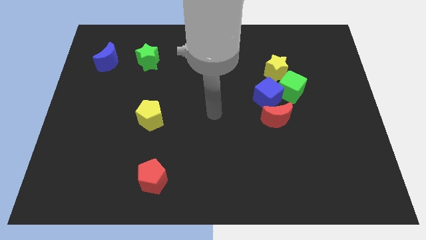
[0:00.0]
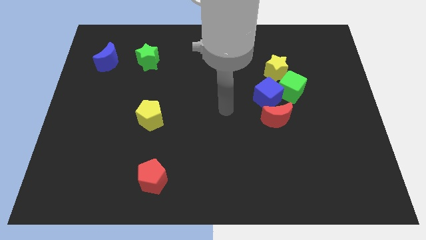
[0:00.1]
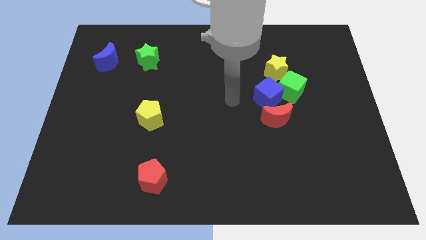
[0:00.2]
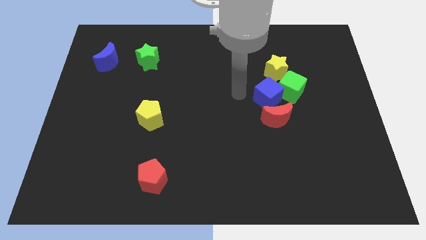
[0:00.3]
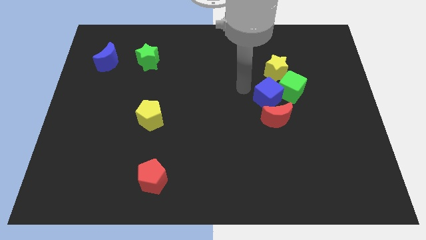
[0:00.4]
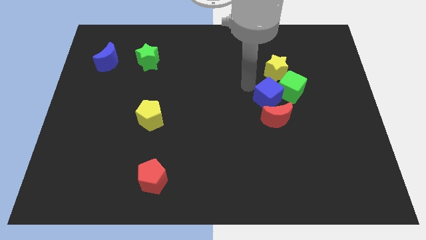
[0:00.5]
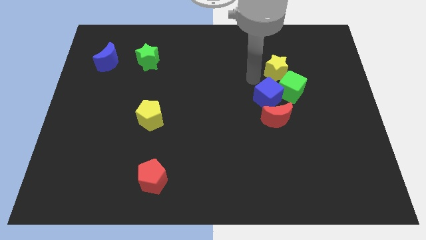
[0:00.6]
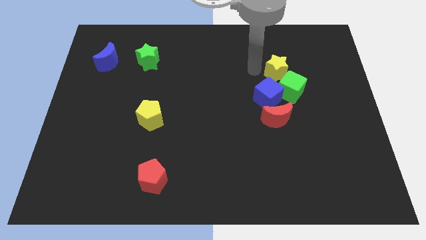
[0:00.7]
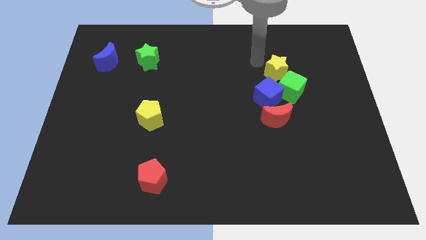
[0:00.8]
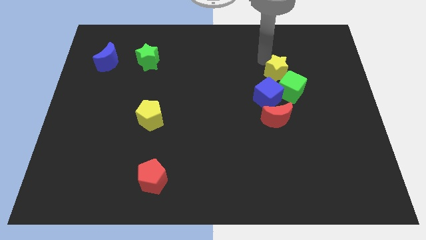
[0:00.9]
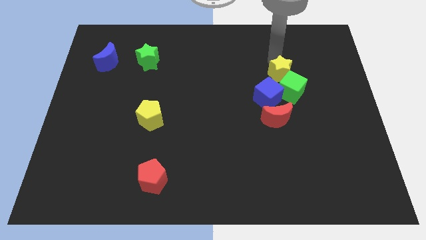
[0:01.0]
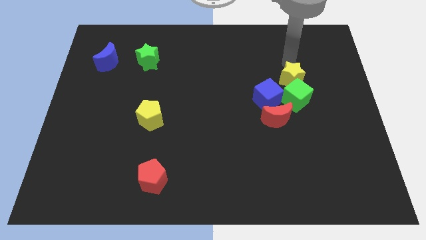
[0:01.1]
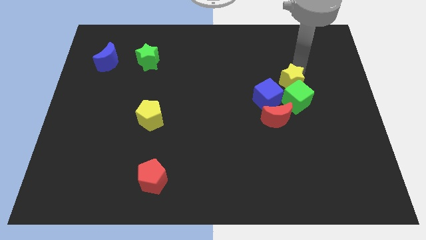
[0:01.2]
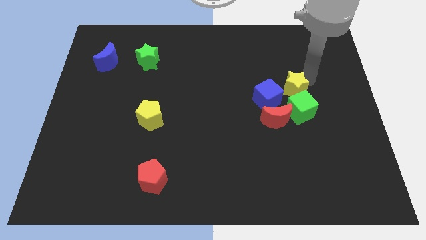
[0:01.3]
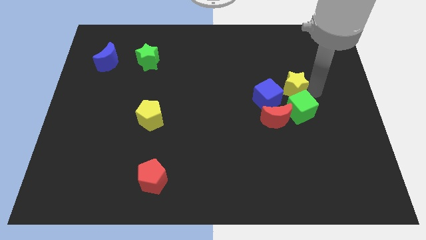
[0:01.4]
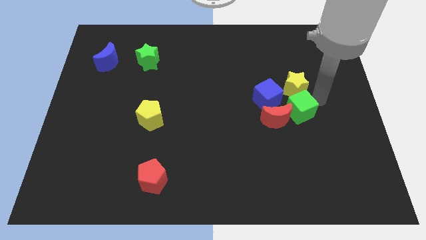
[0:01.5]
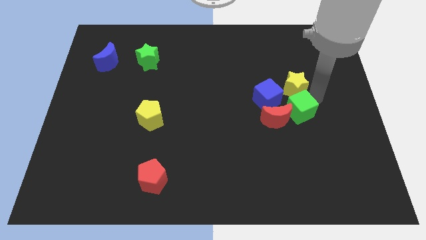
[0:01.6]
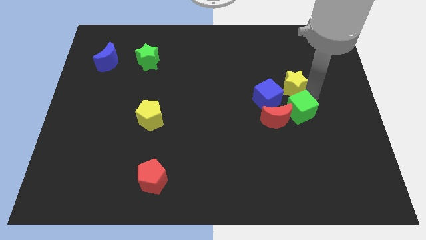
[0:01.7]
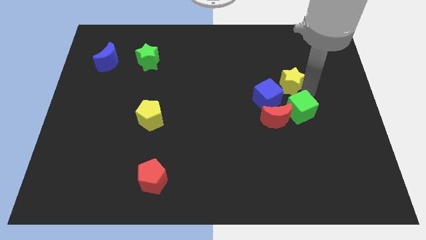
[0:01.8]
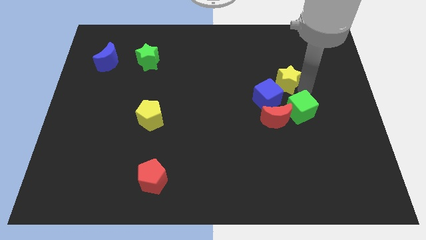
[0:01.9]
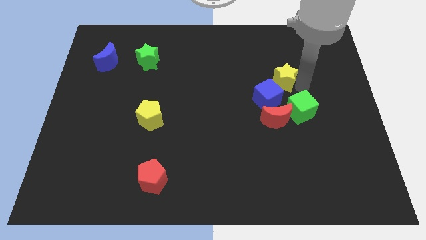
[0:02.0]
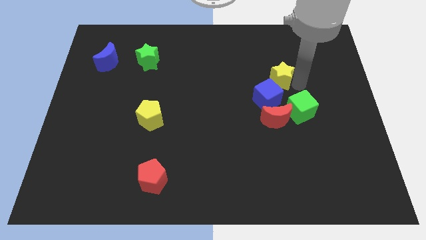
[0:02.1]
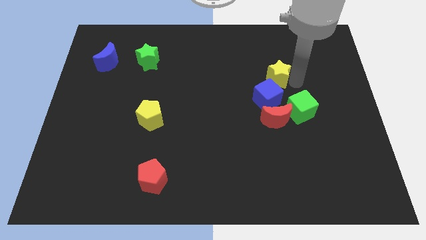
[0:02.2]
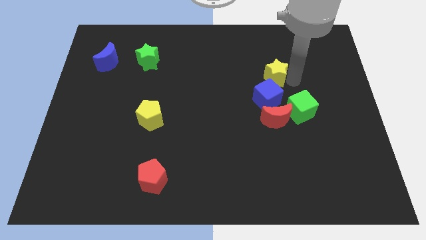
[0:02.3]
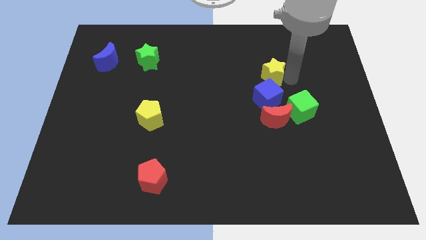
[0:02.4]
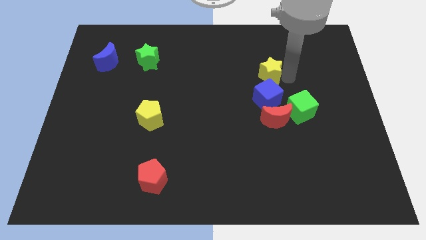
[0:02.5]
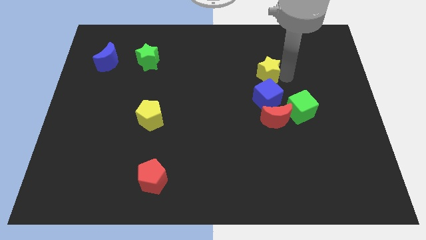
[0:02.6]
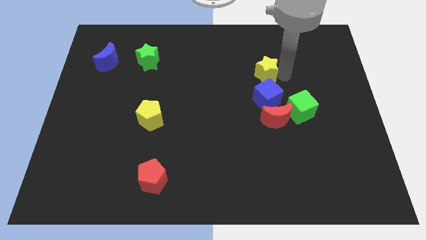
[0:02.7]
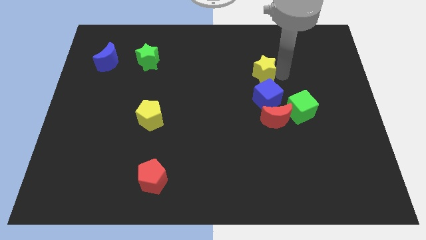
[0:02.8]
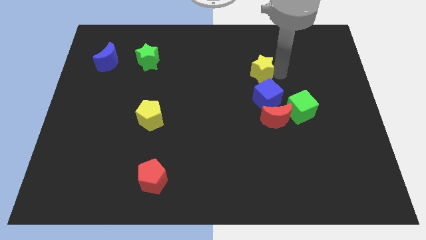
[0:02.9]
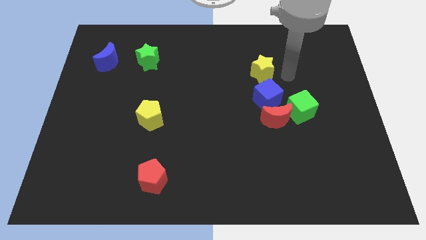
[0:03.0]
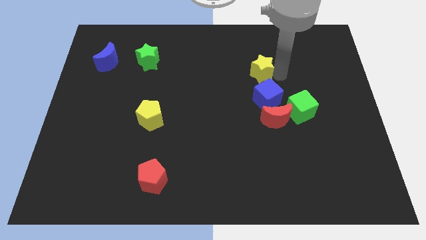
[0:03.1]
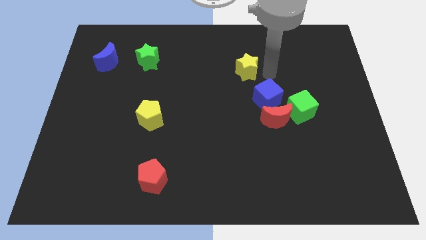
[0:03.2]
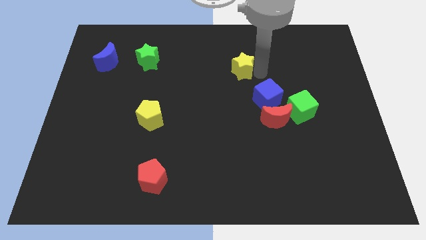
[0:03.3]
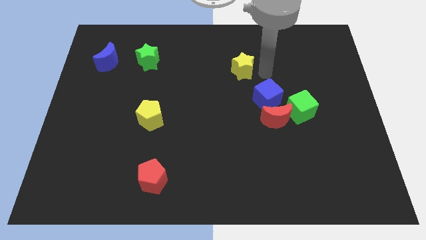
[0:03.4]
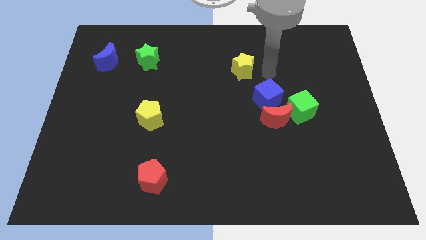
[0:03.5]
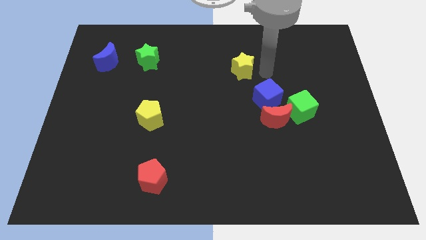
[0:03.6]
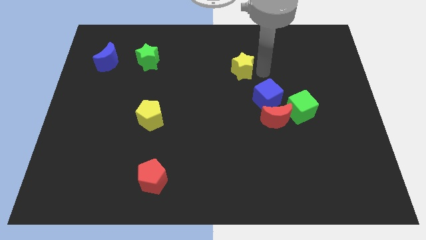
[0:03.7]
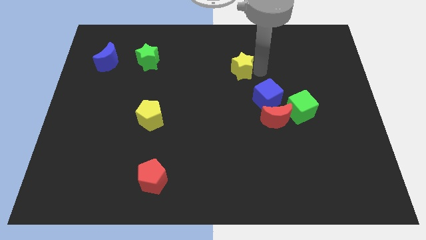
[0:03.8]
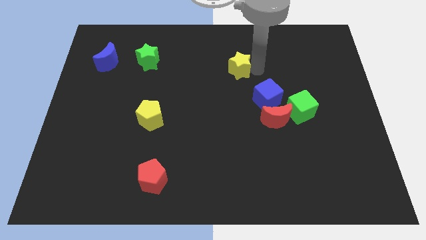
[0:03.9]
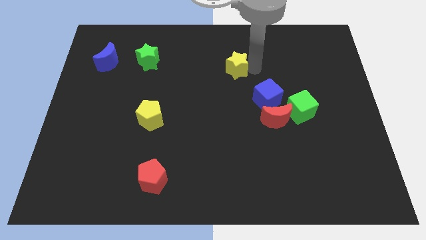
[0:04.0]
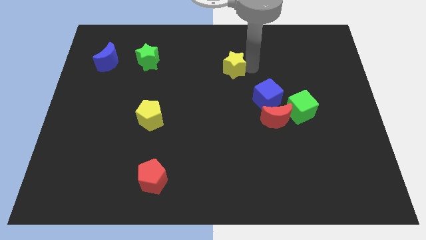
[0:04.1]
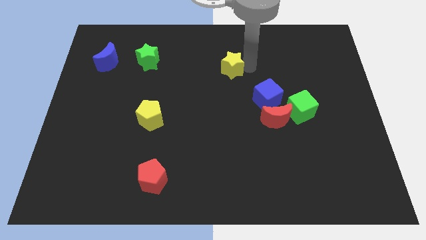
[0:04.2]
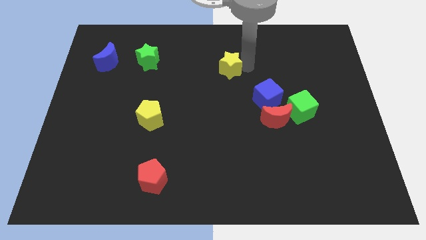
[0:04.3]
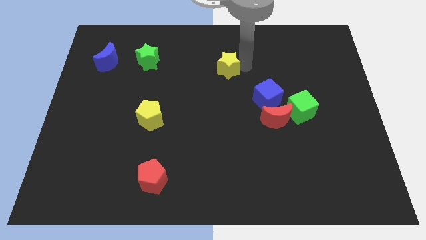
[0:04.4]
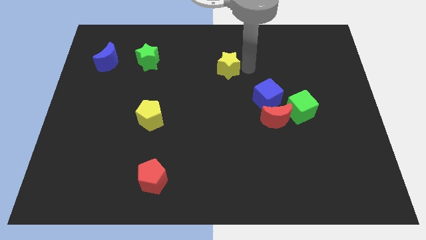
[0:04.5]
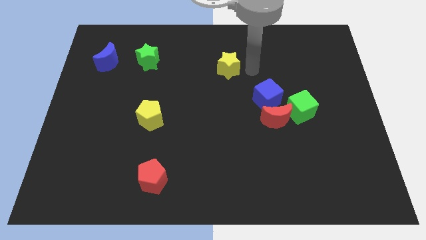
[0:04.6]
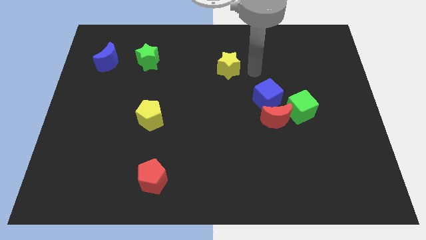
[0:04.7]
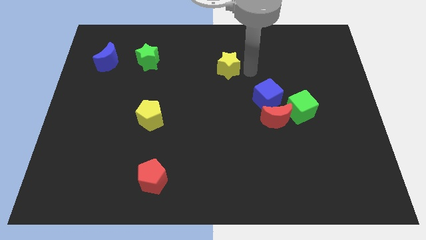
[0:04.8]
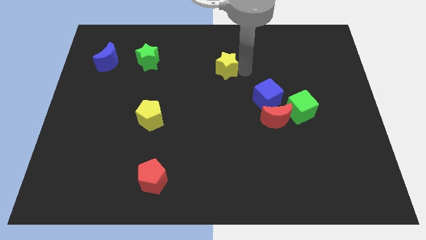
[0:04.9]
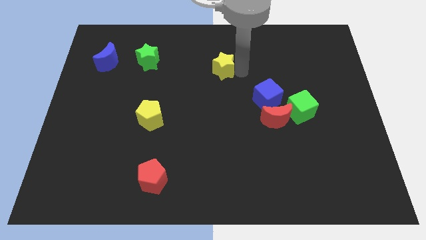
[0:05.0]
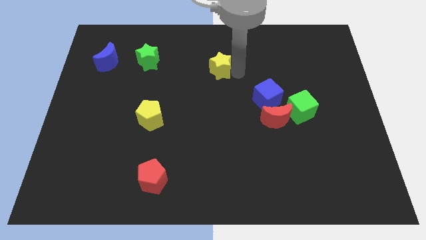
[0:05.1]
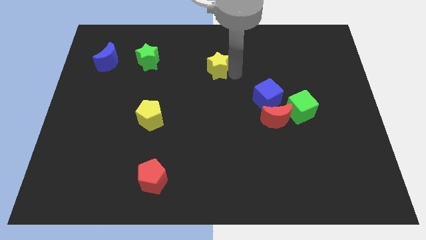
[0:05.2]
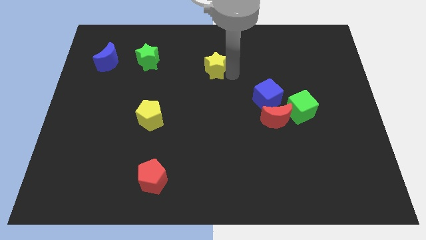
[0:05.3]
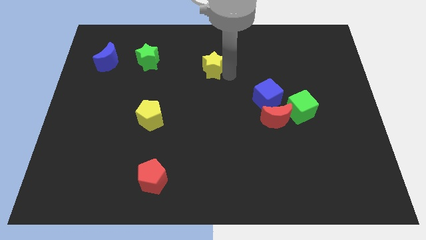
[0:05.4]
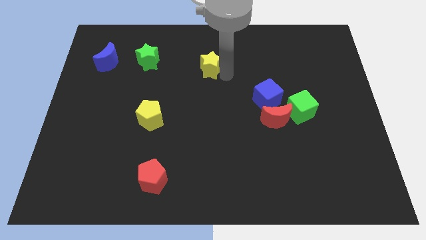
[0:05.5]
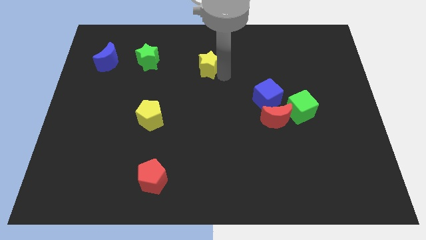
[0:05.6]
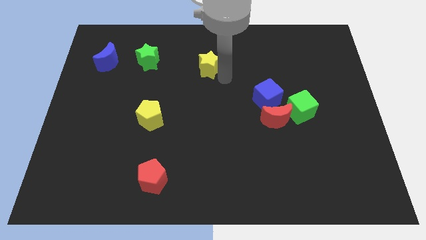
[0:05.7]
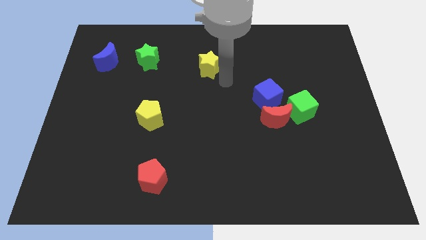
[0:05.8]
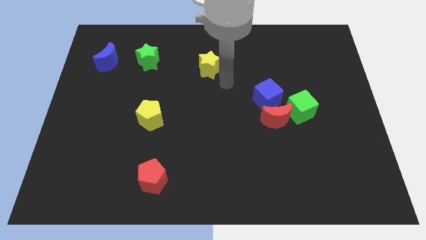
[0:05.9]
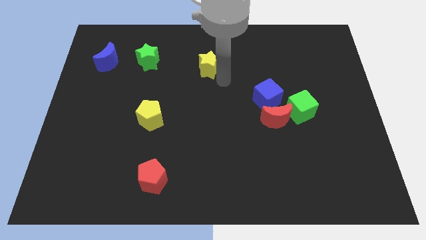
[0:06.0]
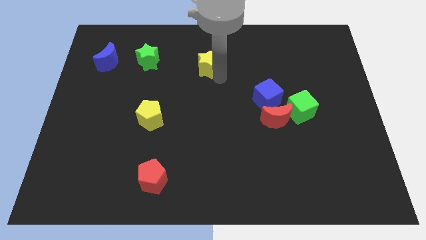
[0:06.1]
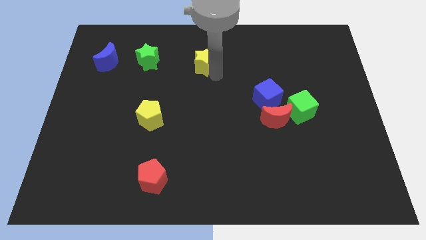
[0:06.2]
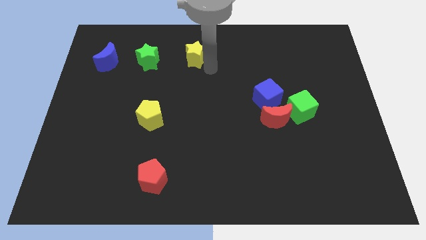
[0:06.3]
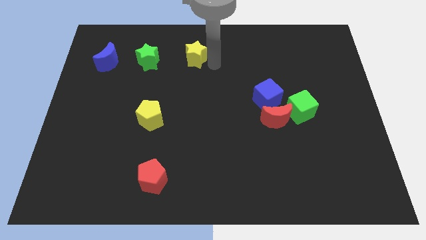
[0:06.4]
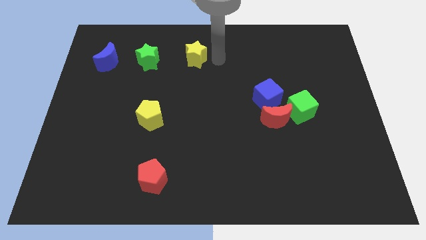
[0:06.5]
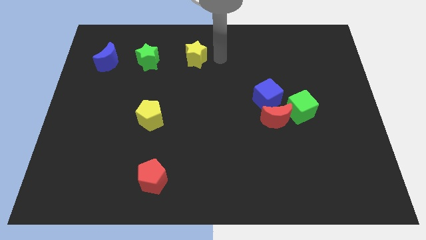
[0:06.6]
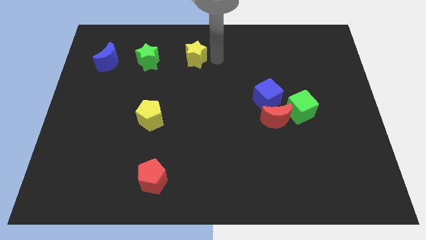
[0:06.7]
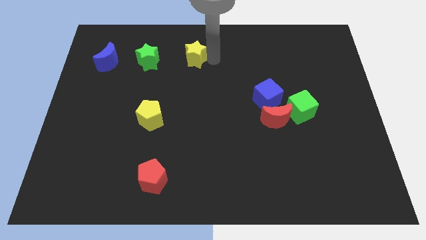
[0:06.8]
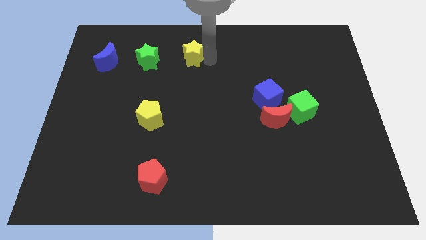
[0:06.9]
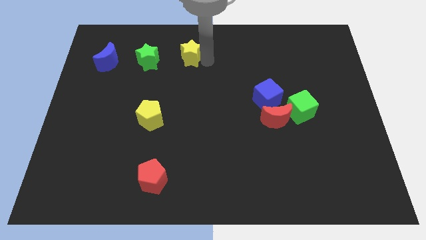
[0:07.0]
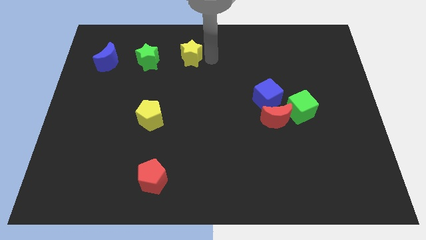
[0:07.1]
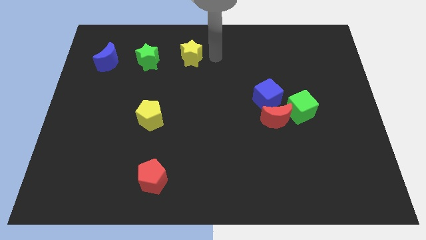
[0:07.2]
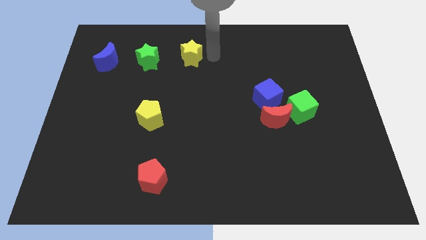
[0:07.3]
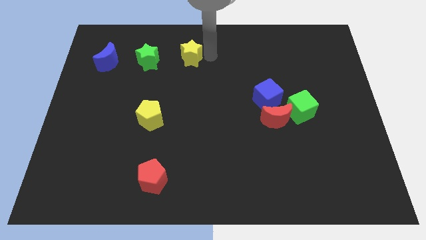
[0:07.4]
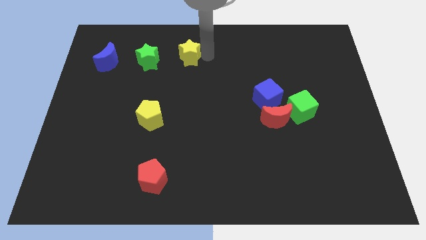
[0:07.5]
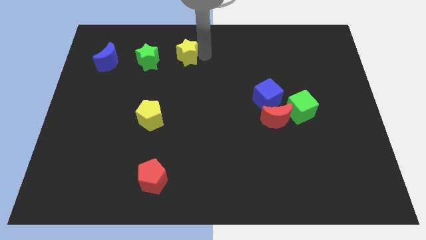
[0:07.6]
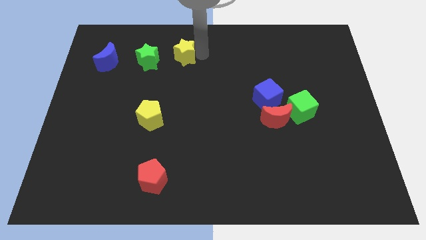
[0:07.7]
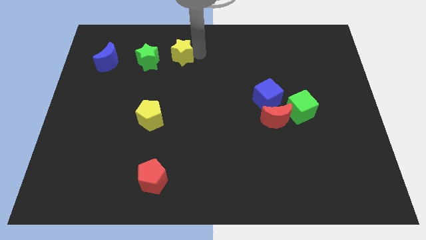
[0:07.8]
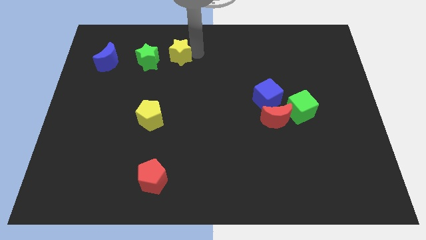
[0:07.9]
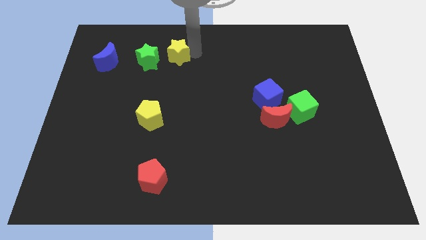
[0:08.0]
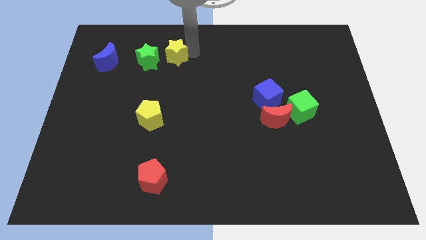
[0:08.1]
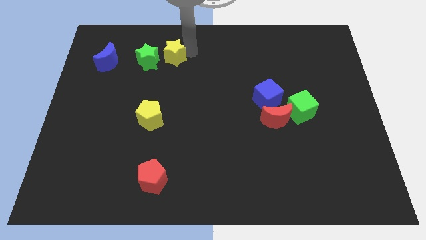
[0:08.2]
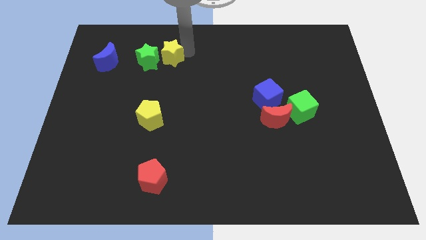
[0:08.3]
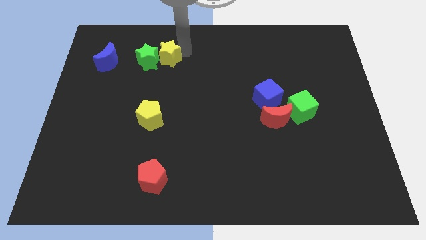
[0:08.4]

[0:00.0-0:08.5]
push the yellow star towards the green star
